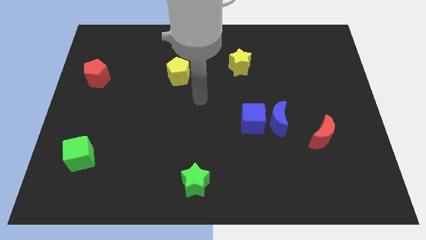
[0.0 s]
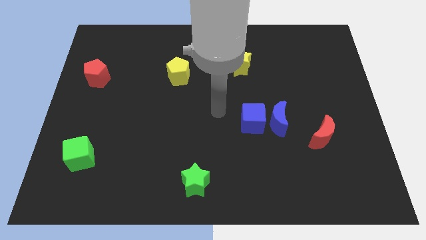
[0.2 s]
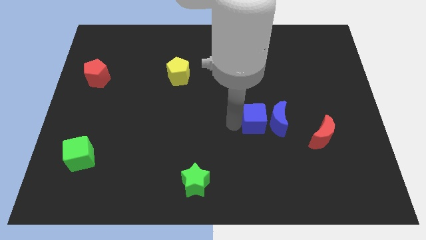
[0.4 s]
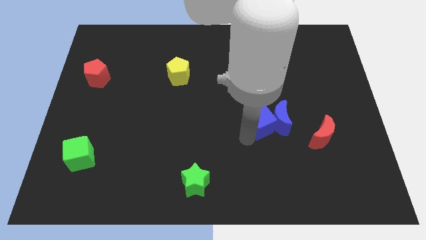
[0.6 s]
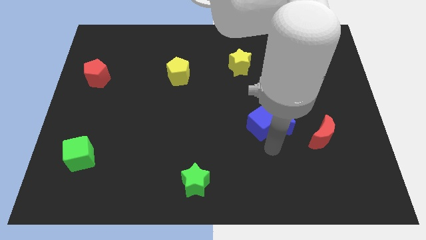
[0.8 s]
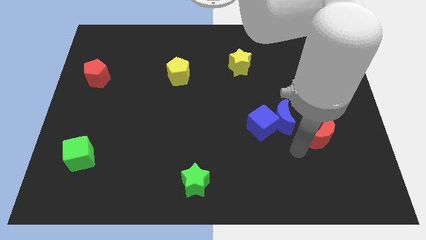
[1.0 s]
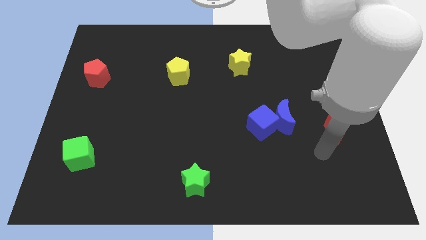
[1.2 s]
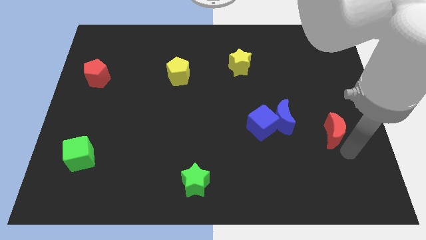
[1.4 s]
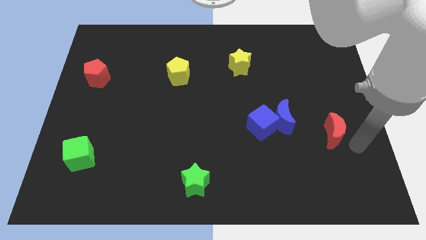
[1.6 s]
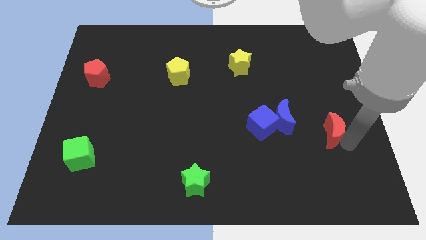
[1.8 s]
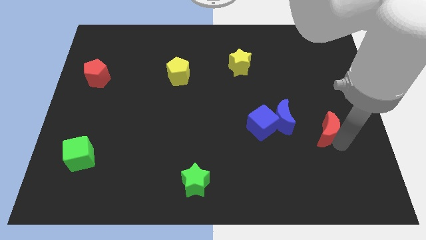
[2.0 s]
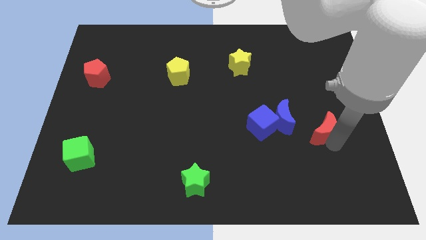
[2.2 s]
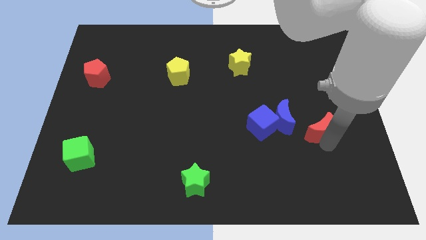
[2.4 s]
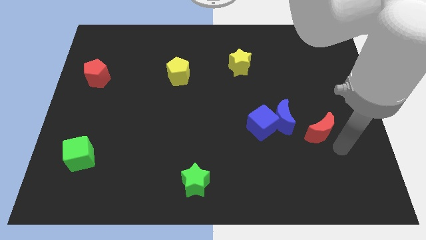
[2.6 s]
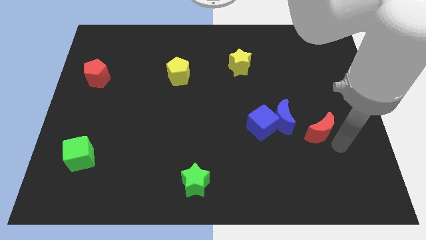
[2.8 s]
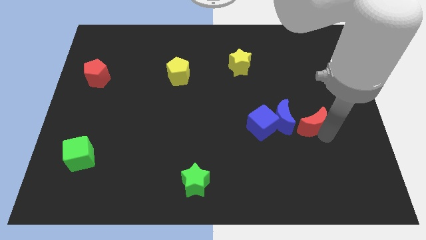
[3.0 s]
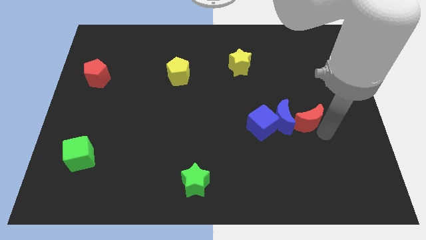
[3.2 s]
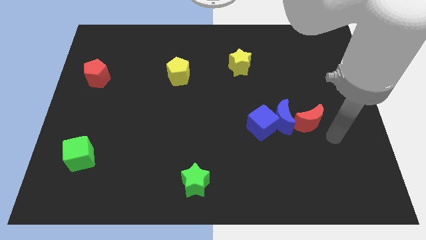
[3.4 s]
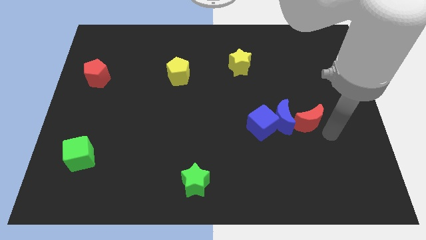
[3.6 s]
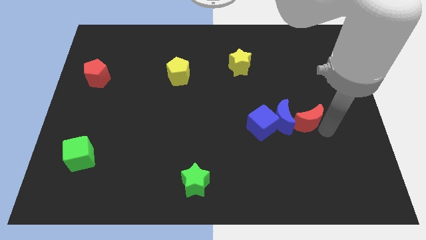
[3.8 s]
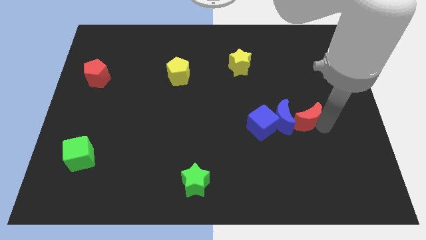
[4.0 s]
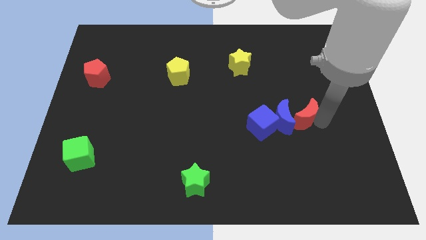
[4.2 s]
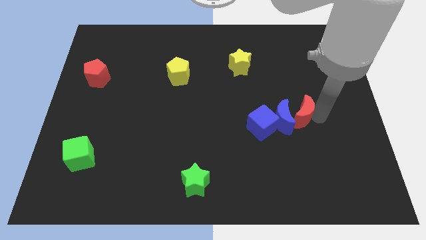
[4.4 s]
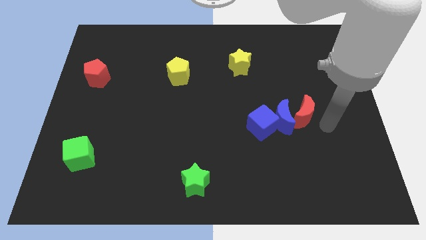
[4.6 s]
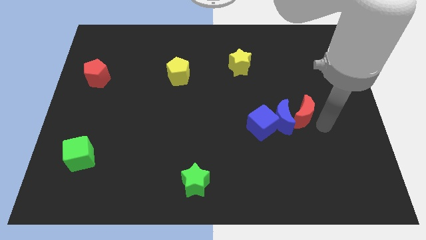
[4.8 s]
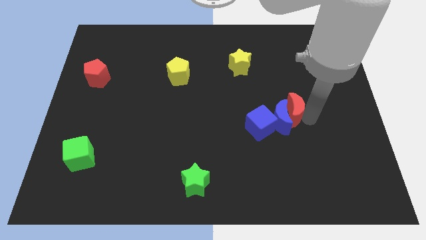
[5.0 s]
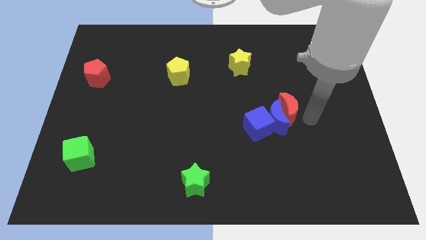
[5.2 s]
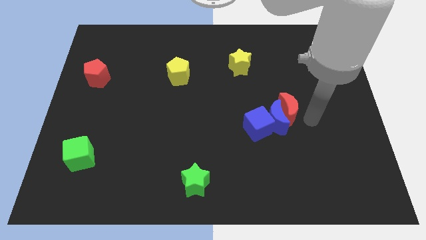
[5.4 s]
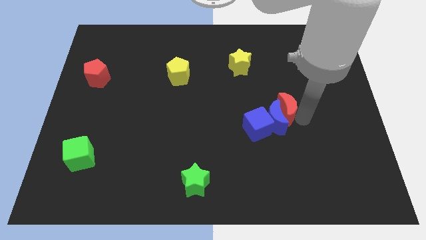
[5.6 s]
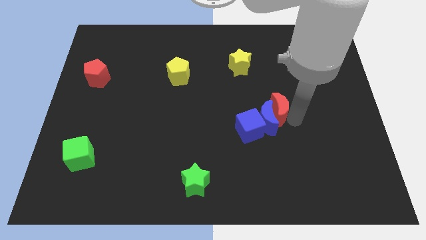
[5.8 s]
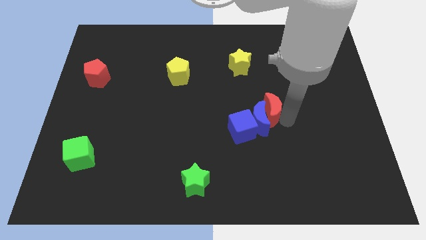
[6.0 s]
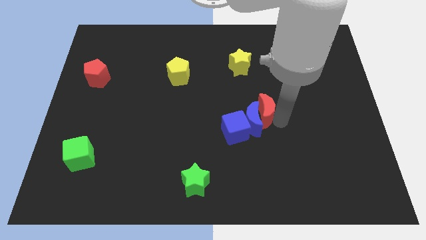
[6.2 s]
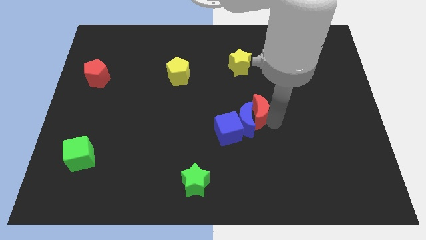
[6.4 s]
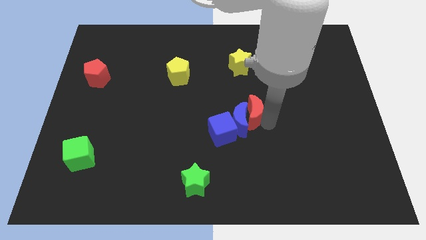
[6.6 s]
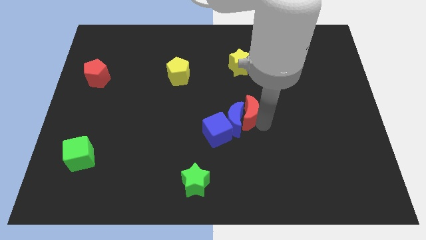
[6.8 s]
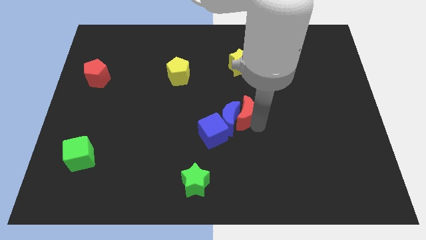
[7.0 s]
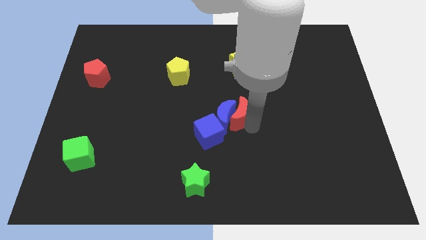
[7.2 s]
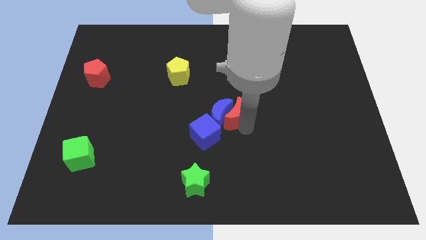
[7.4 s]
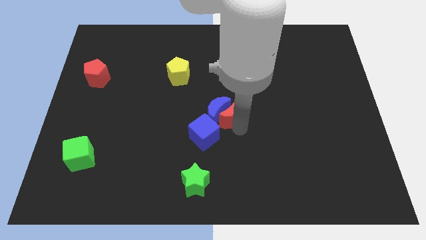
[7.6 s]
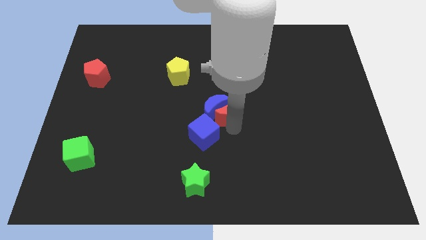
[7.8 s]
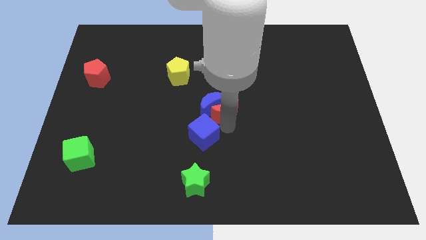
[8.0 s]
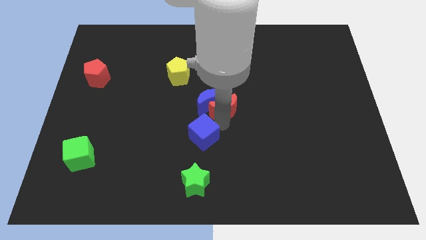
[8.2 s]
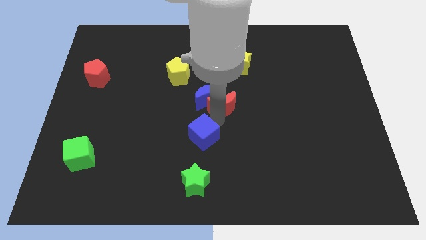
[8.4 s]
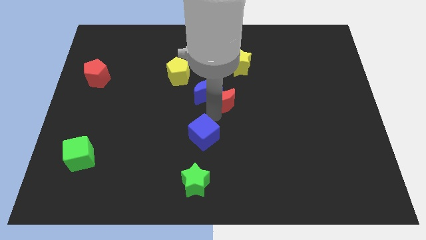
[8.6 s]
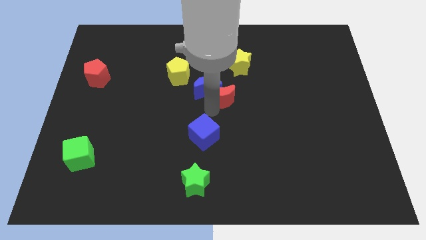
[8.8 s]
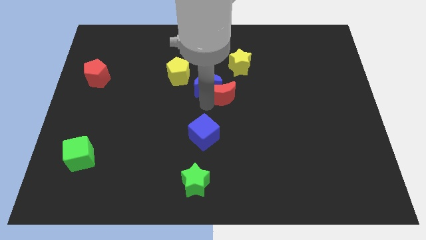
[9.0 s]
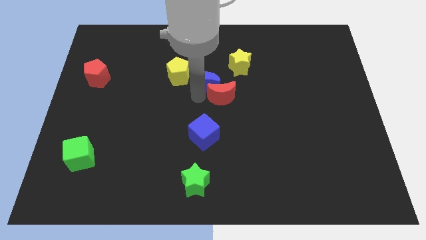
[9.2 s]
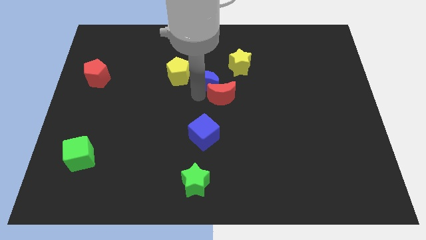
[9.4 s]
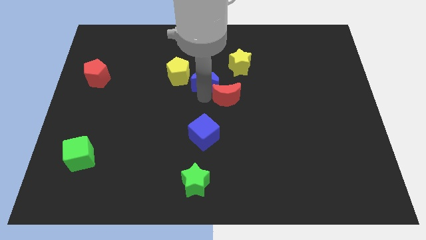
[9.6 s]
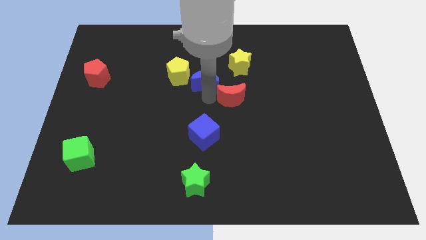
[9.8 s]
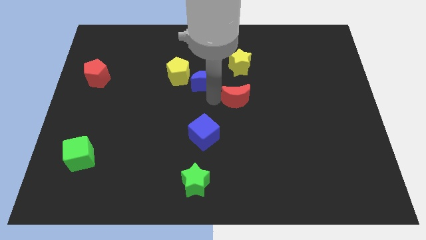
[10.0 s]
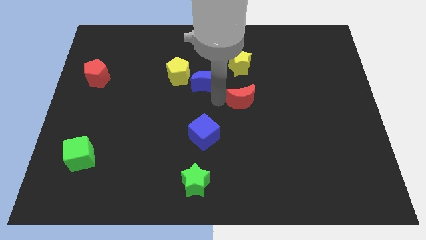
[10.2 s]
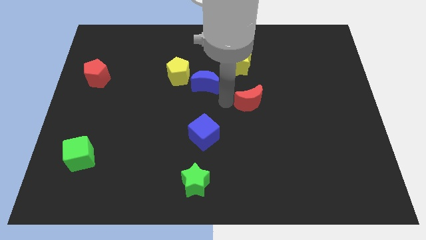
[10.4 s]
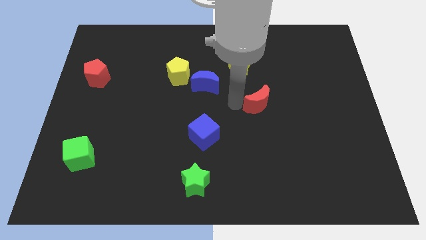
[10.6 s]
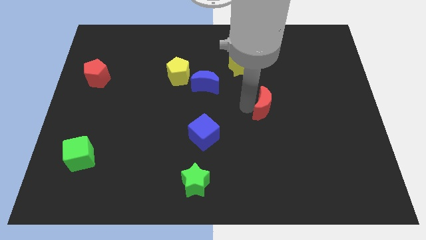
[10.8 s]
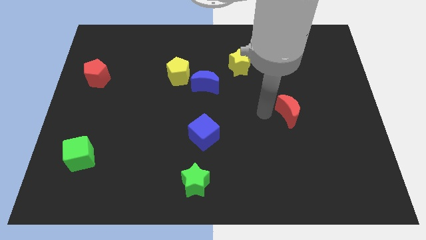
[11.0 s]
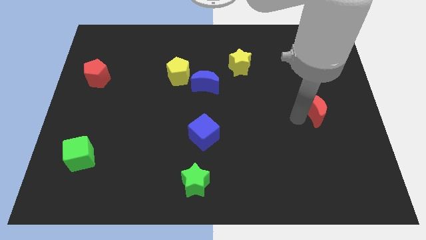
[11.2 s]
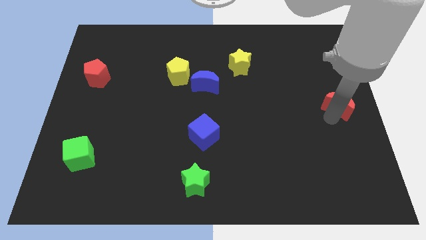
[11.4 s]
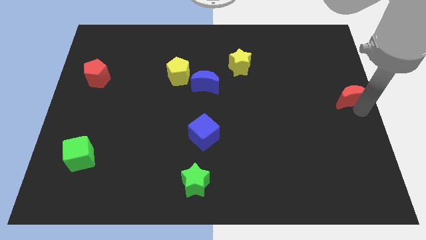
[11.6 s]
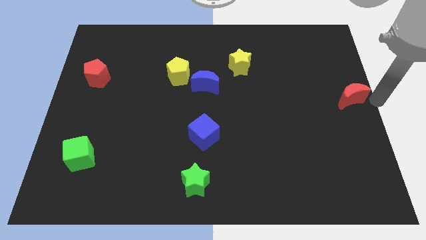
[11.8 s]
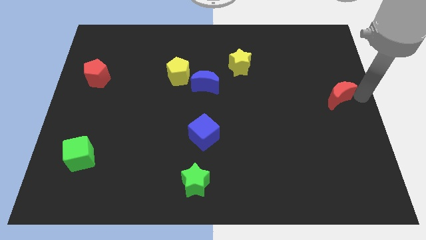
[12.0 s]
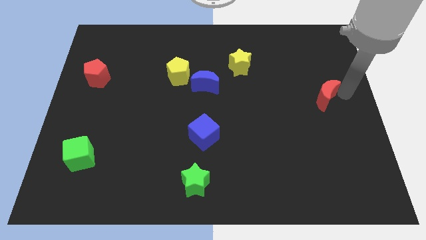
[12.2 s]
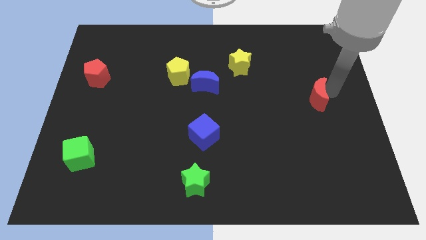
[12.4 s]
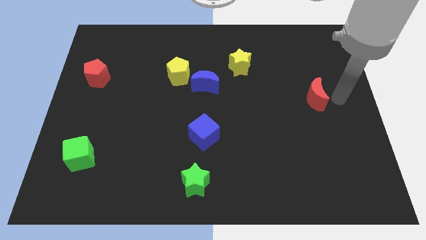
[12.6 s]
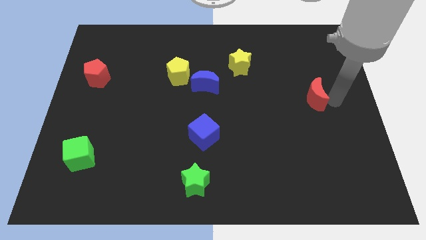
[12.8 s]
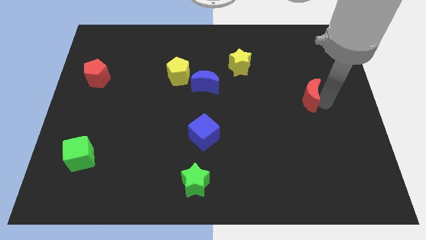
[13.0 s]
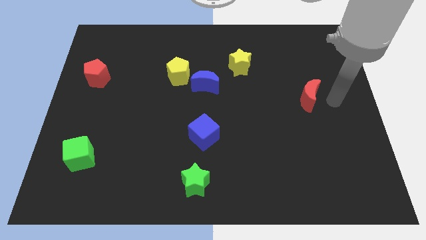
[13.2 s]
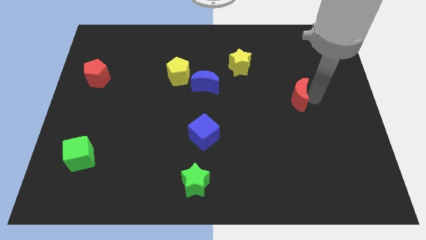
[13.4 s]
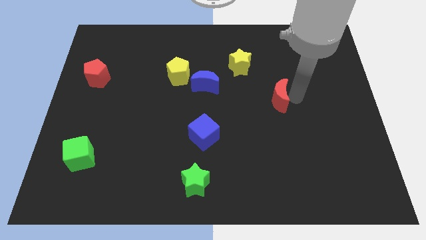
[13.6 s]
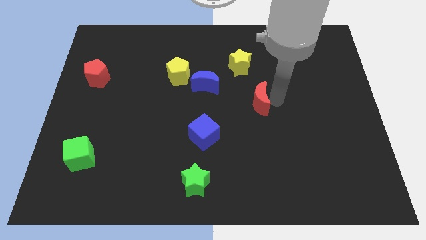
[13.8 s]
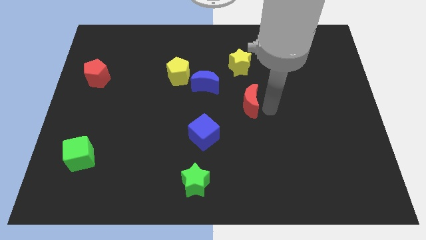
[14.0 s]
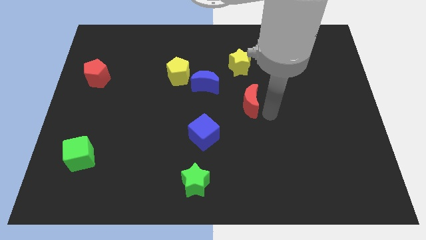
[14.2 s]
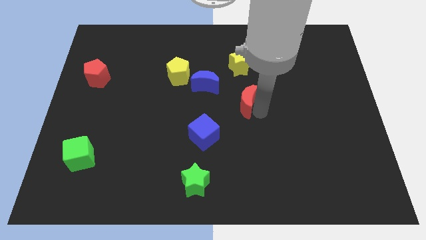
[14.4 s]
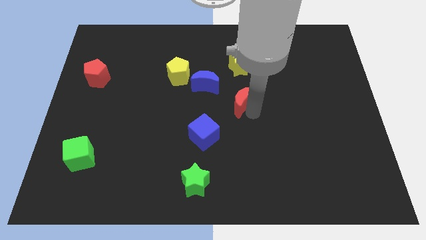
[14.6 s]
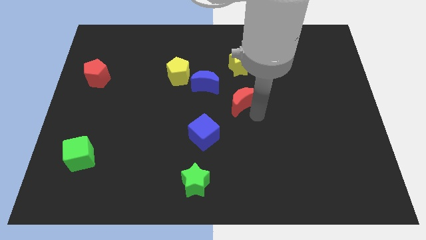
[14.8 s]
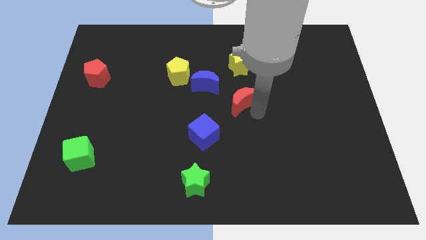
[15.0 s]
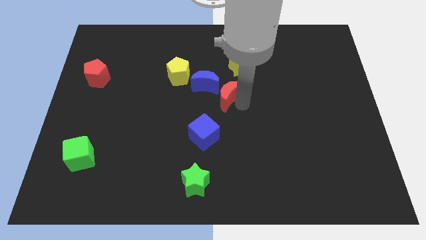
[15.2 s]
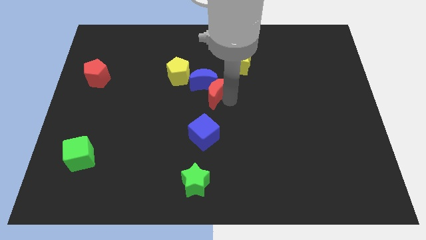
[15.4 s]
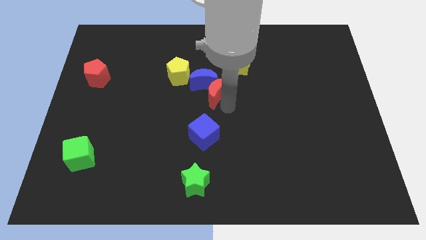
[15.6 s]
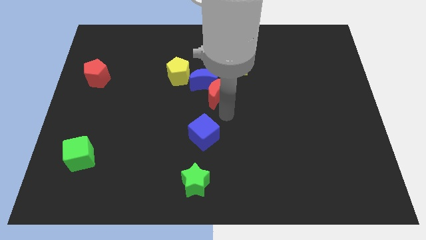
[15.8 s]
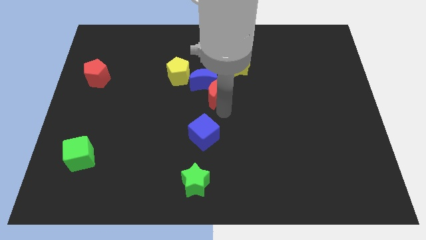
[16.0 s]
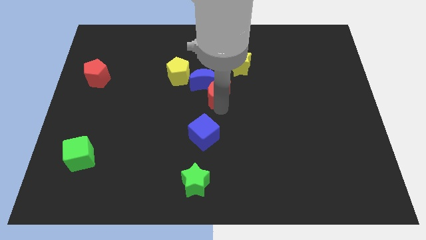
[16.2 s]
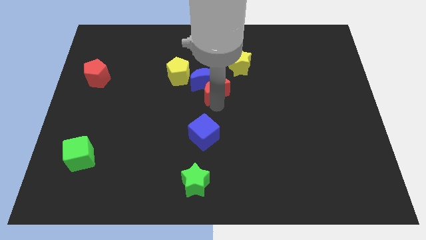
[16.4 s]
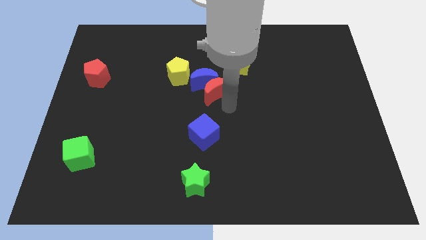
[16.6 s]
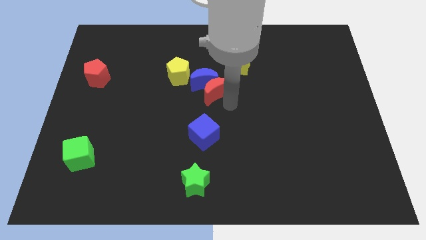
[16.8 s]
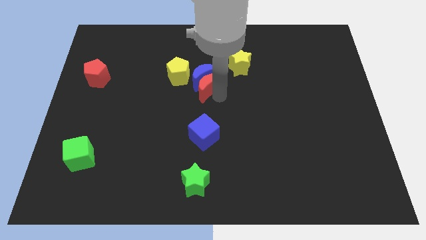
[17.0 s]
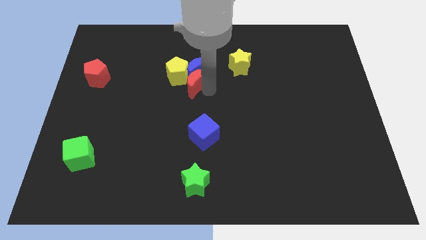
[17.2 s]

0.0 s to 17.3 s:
put the red moon close to the yellow pentagon
